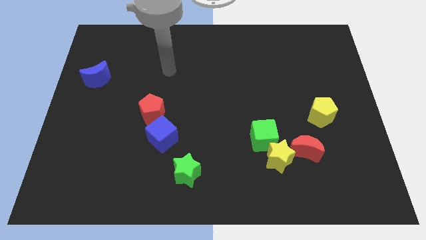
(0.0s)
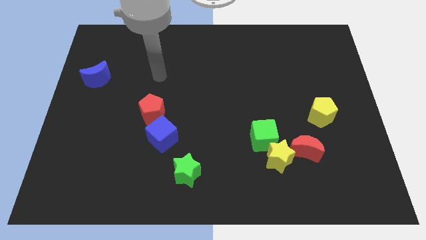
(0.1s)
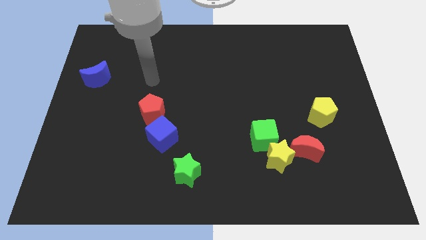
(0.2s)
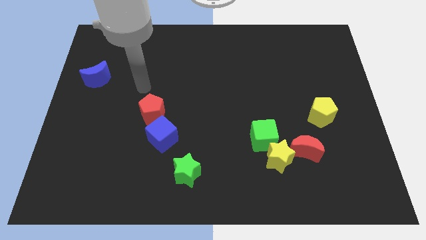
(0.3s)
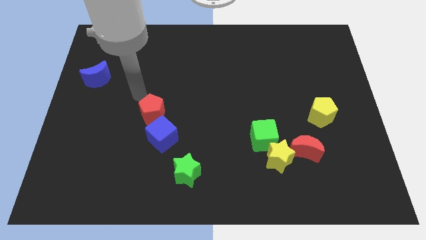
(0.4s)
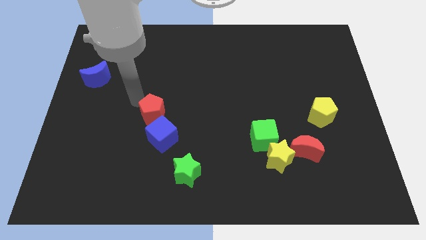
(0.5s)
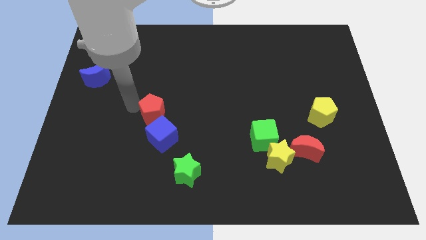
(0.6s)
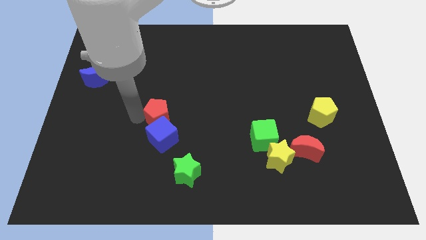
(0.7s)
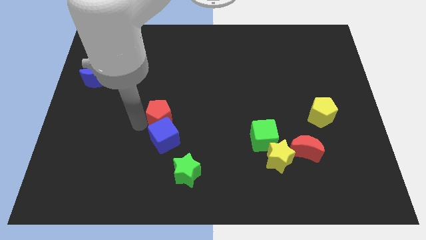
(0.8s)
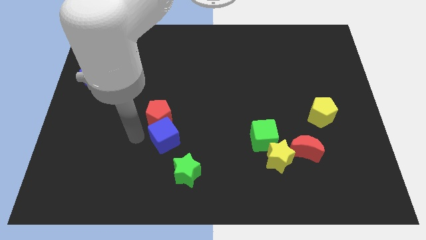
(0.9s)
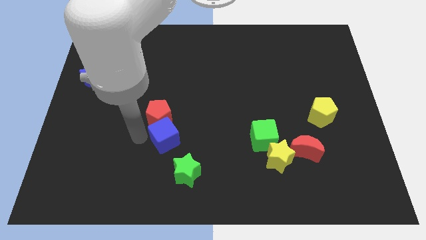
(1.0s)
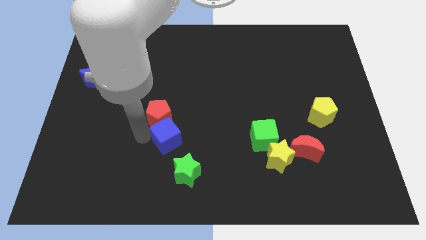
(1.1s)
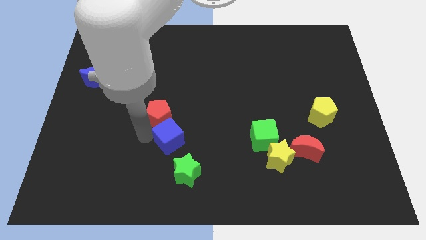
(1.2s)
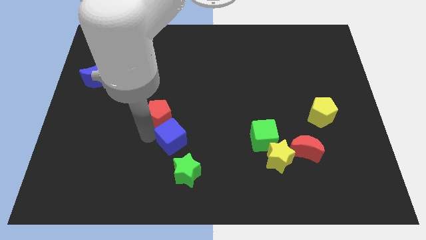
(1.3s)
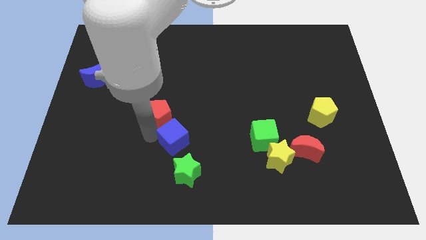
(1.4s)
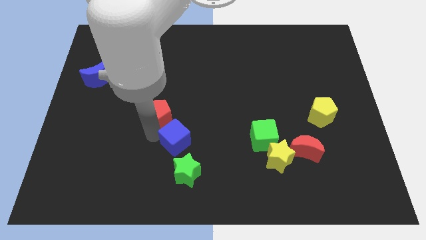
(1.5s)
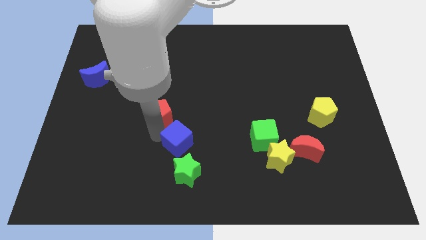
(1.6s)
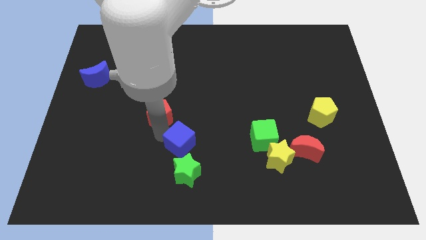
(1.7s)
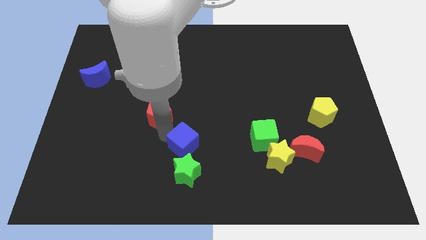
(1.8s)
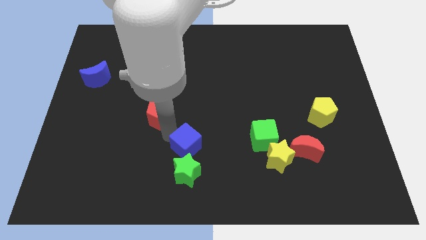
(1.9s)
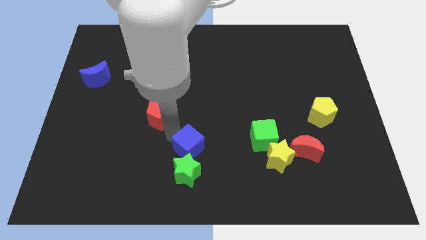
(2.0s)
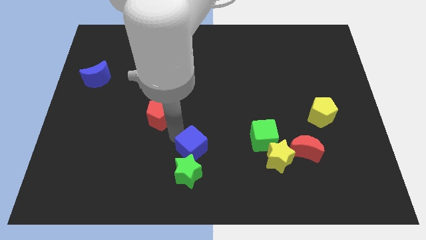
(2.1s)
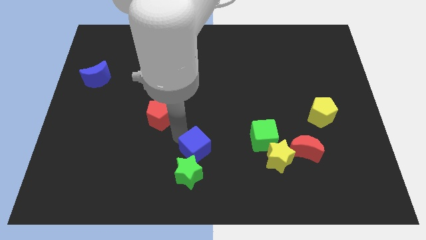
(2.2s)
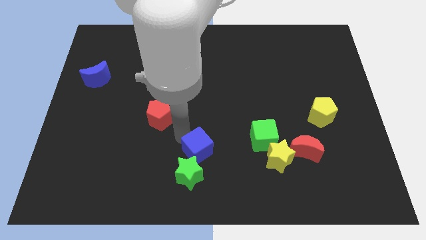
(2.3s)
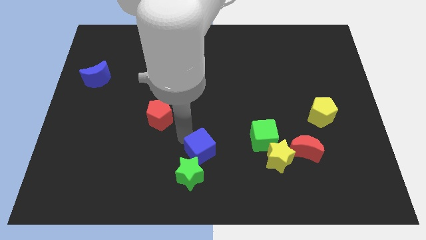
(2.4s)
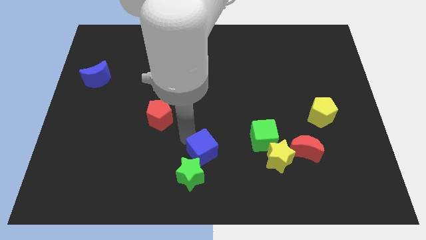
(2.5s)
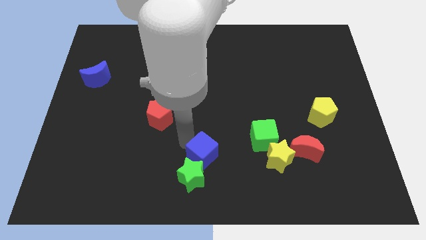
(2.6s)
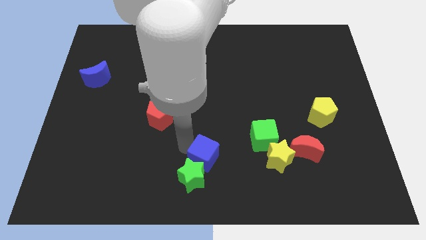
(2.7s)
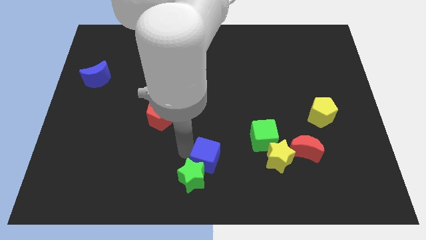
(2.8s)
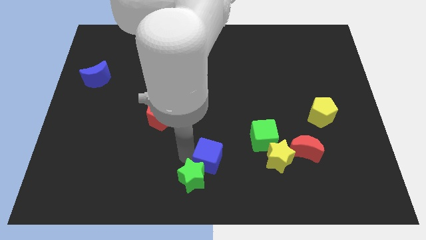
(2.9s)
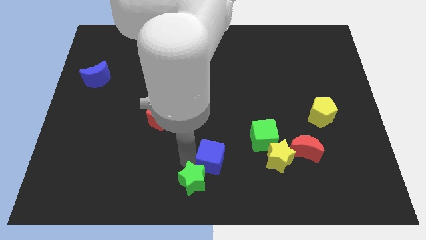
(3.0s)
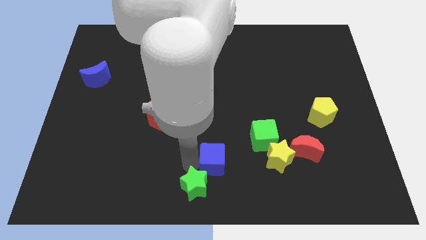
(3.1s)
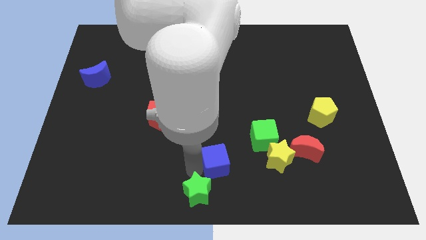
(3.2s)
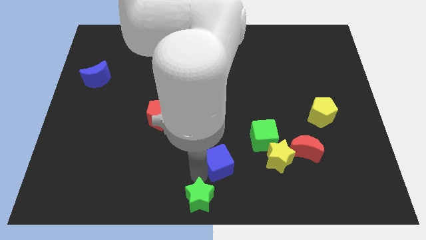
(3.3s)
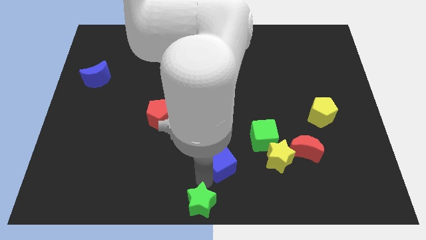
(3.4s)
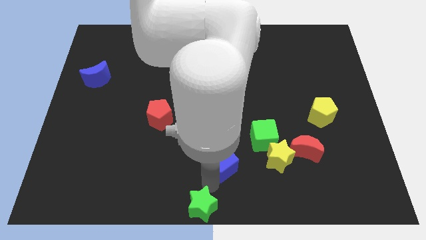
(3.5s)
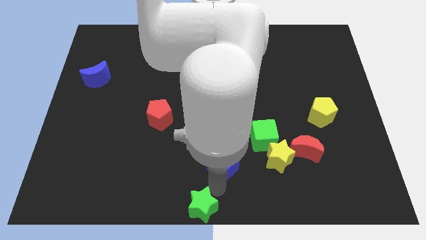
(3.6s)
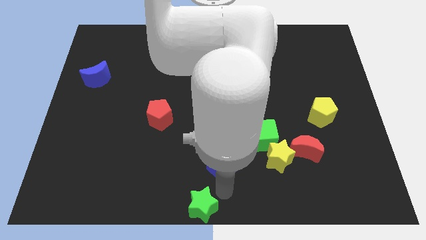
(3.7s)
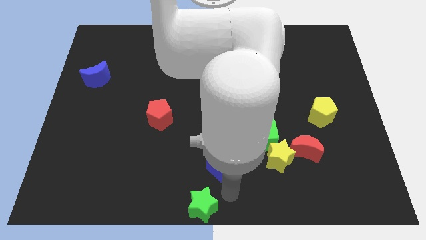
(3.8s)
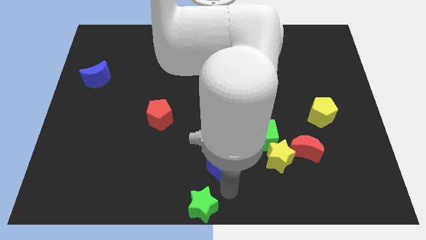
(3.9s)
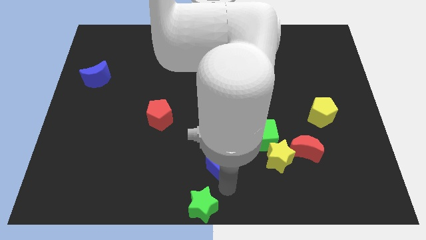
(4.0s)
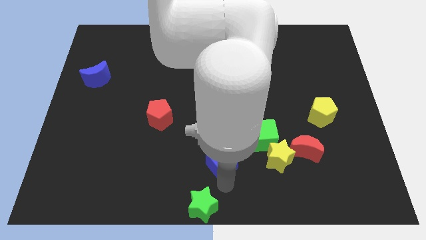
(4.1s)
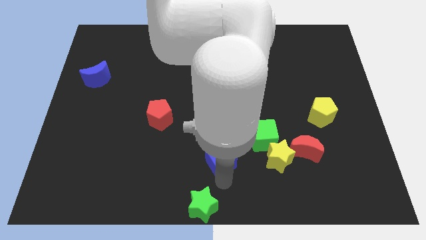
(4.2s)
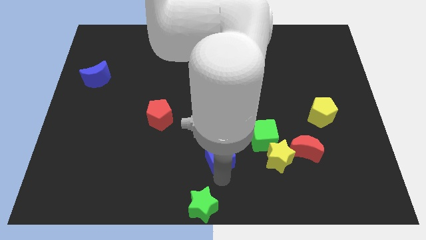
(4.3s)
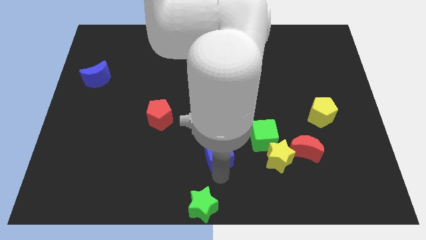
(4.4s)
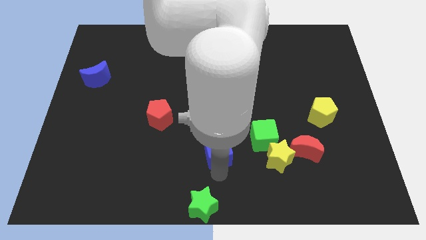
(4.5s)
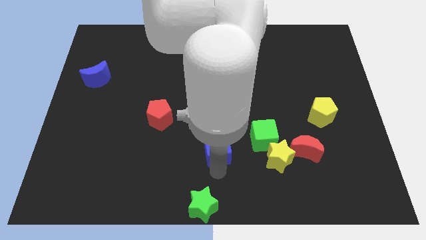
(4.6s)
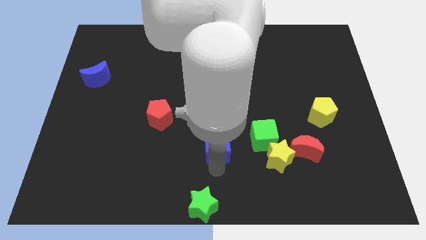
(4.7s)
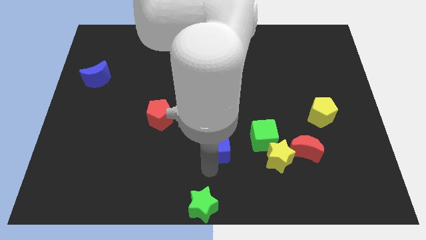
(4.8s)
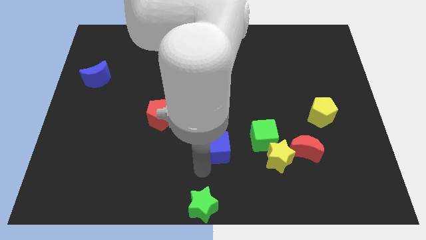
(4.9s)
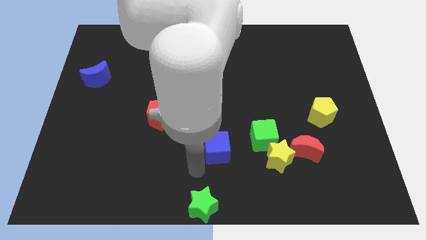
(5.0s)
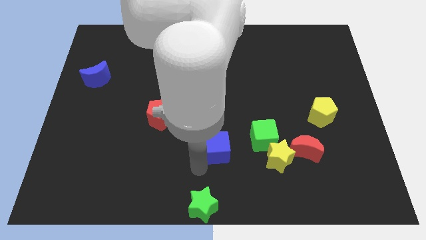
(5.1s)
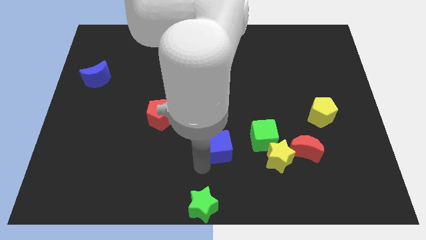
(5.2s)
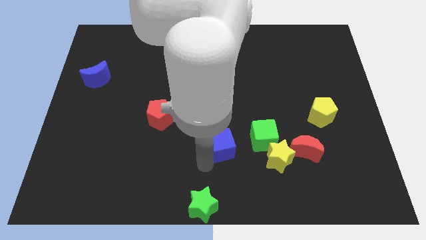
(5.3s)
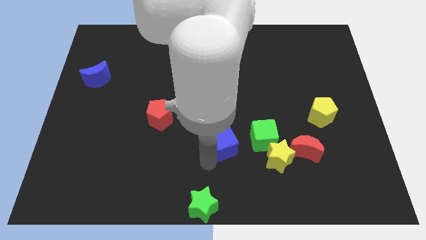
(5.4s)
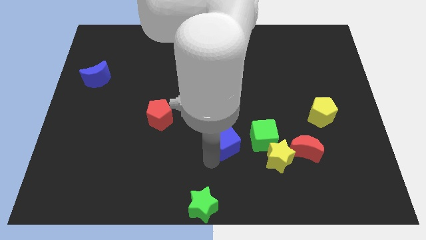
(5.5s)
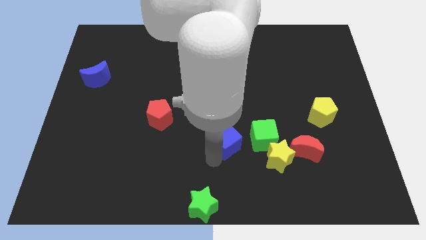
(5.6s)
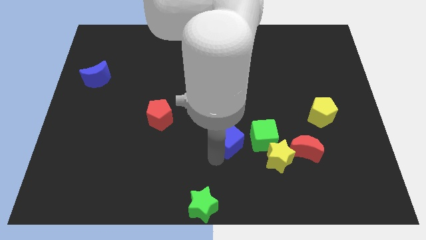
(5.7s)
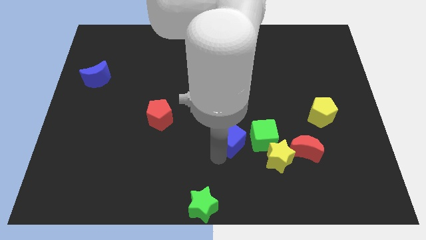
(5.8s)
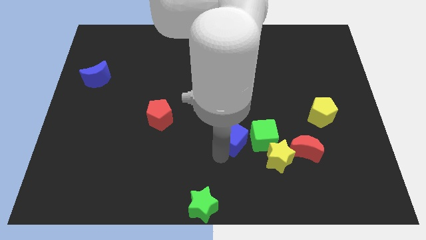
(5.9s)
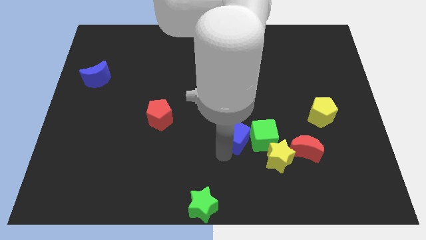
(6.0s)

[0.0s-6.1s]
put the blue cube close to the green cube
